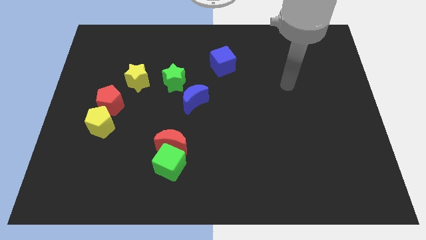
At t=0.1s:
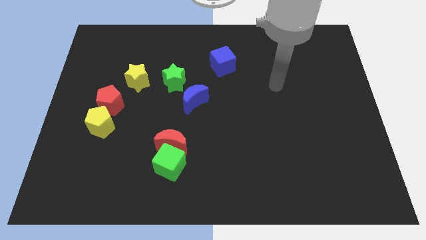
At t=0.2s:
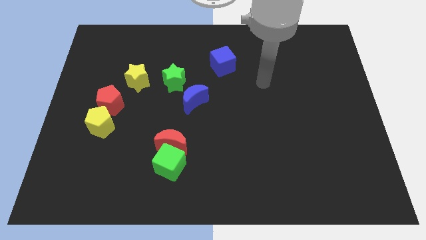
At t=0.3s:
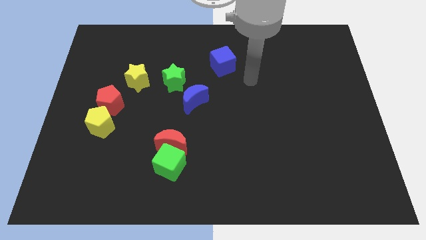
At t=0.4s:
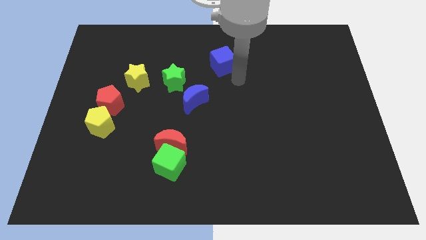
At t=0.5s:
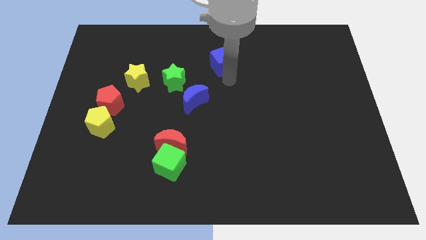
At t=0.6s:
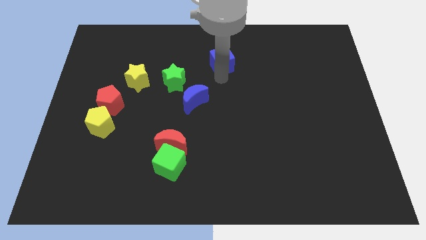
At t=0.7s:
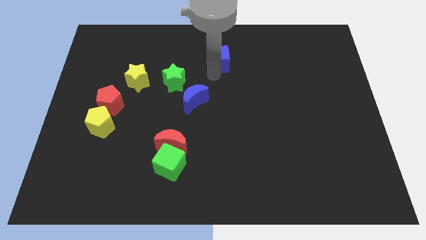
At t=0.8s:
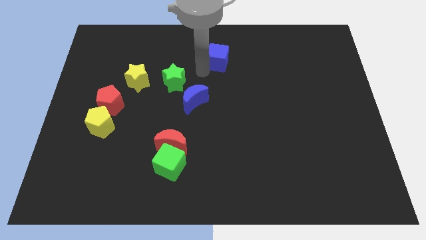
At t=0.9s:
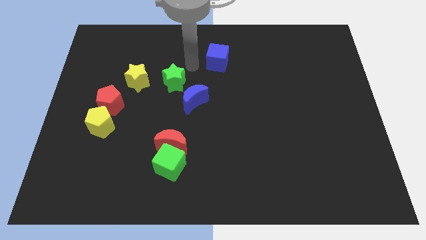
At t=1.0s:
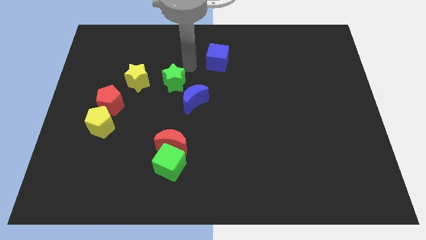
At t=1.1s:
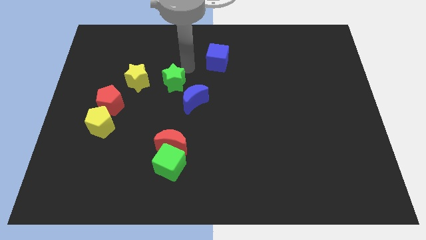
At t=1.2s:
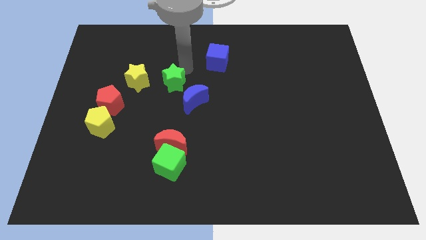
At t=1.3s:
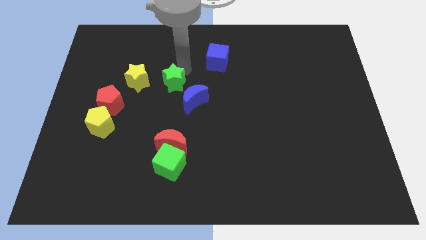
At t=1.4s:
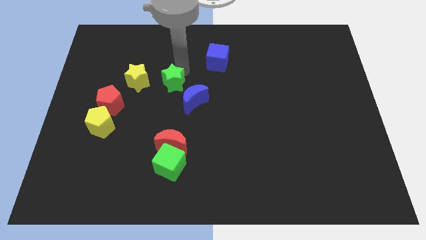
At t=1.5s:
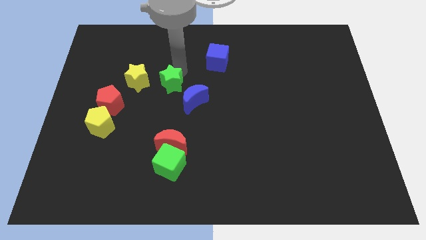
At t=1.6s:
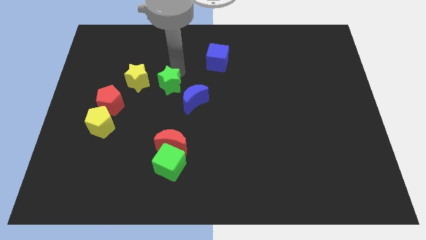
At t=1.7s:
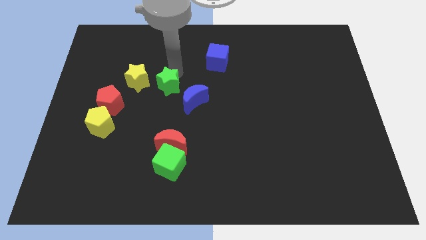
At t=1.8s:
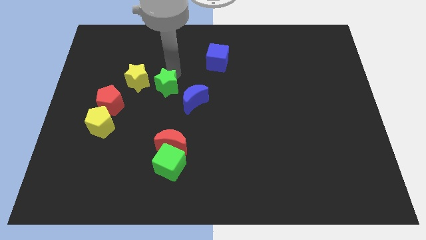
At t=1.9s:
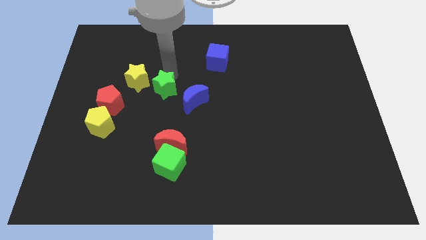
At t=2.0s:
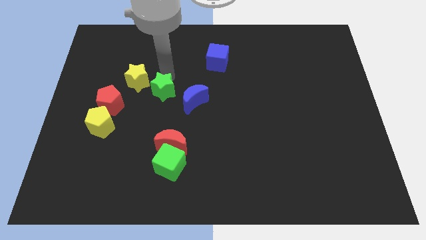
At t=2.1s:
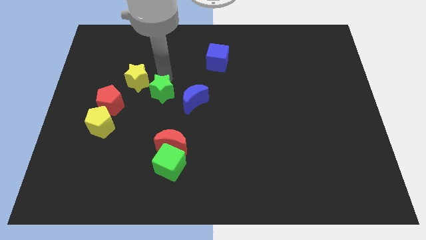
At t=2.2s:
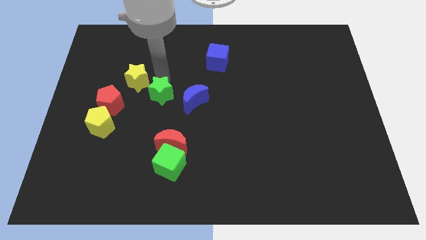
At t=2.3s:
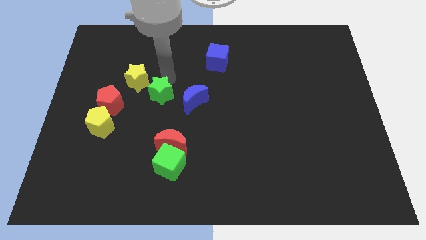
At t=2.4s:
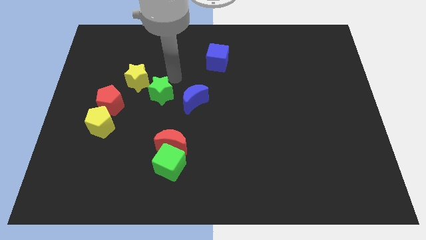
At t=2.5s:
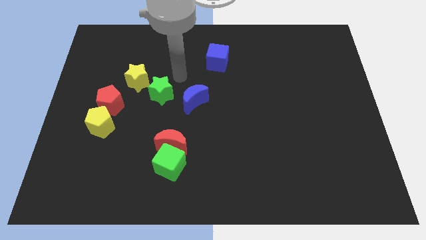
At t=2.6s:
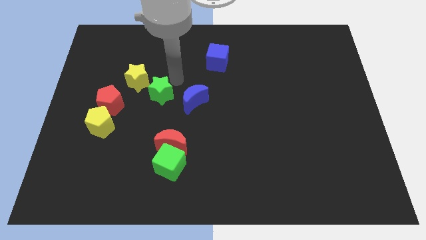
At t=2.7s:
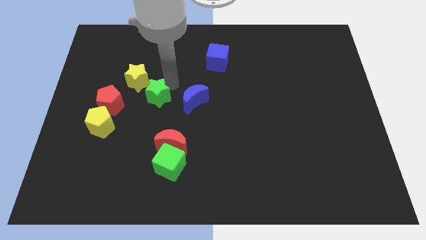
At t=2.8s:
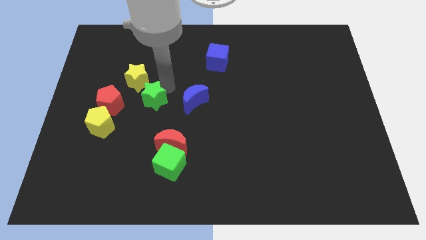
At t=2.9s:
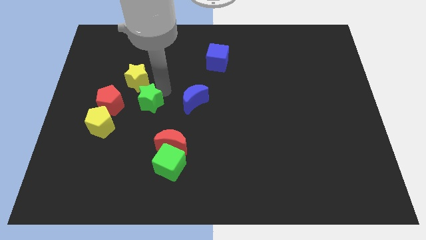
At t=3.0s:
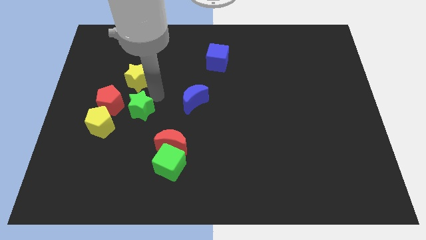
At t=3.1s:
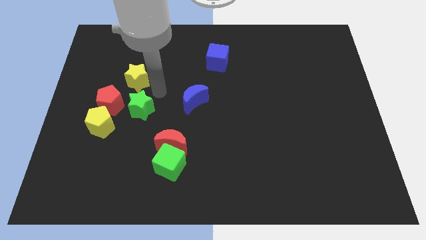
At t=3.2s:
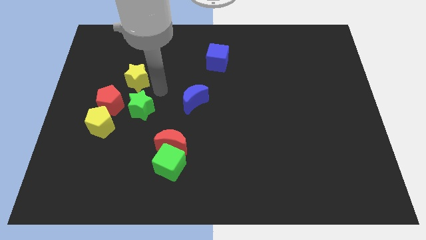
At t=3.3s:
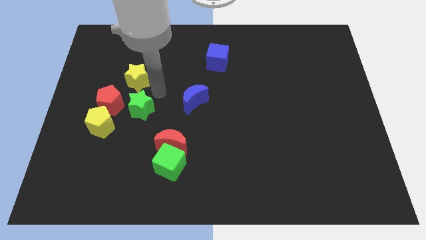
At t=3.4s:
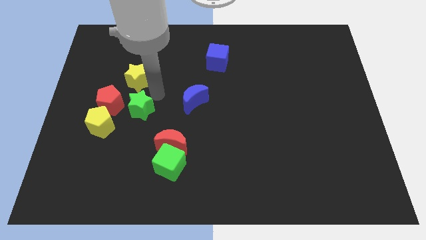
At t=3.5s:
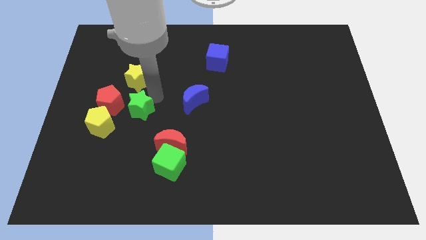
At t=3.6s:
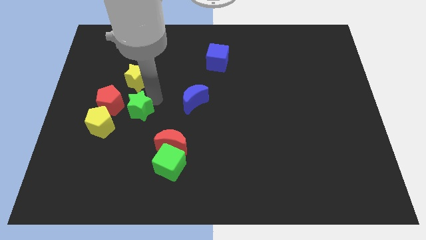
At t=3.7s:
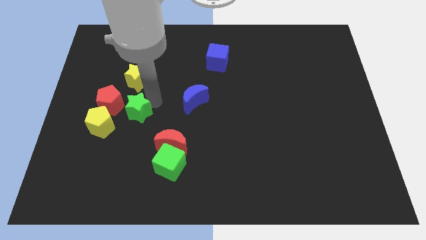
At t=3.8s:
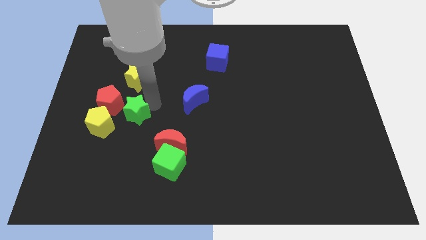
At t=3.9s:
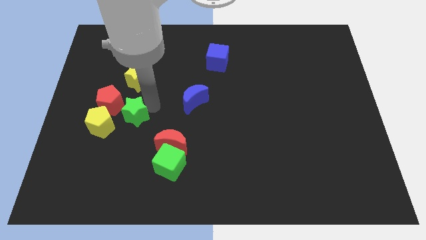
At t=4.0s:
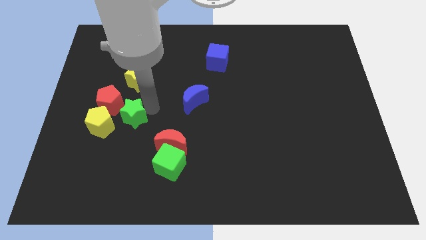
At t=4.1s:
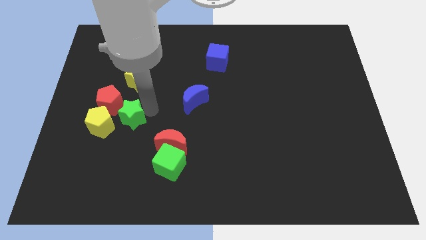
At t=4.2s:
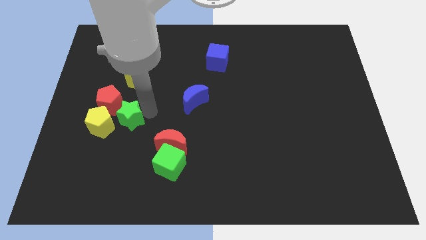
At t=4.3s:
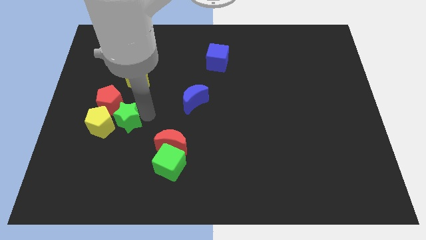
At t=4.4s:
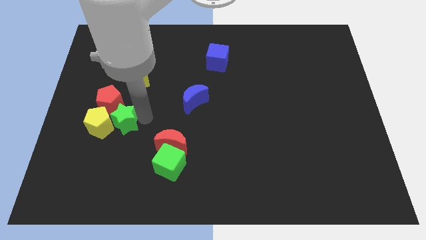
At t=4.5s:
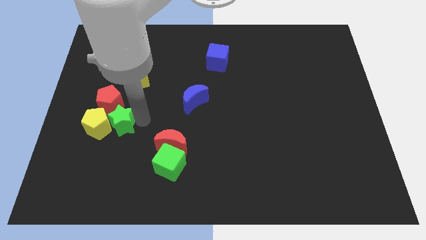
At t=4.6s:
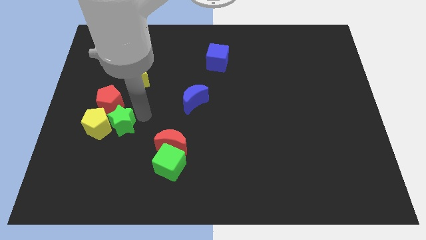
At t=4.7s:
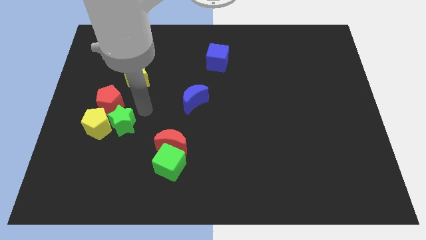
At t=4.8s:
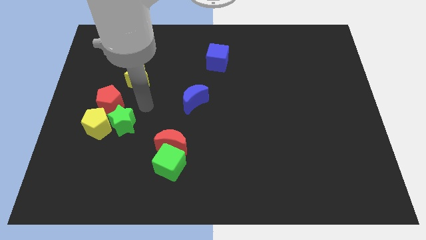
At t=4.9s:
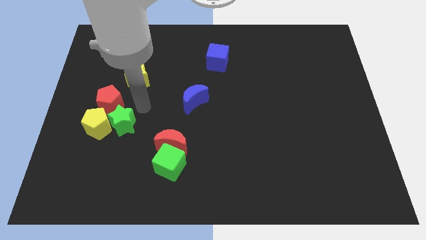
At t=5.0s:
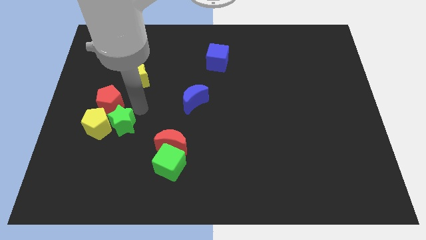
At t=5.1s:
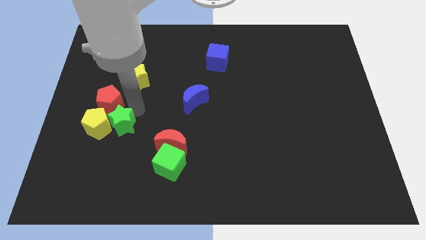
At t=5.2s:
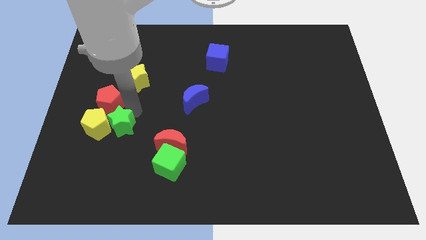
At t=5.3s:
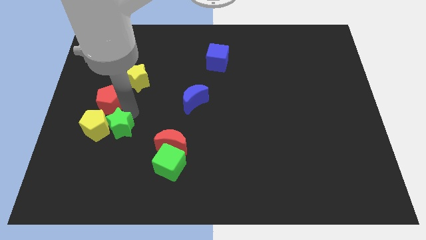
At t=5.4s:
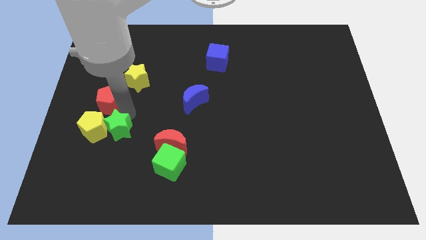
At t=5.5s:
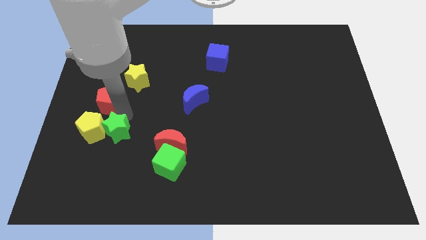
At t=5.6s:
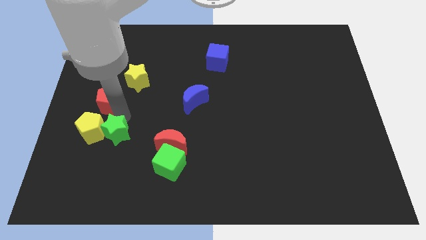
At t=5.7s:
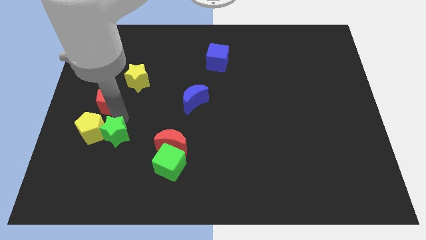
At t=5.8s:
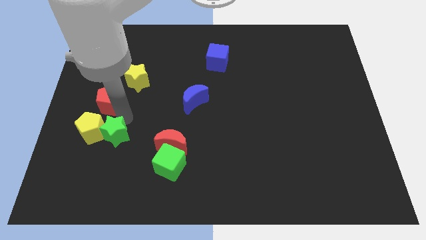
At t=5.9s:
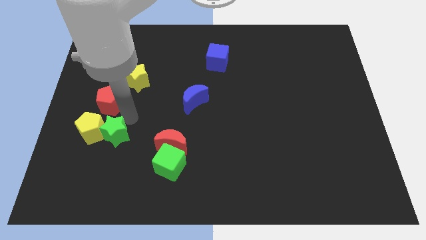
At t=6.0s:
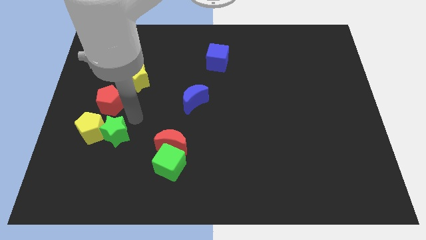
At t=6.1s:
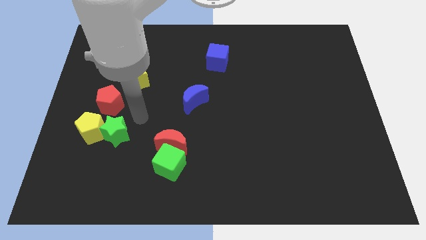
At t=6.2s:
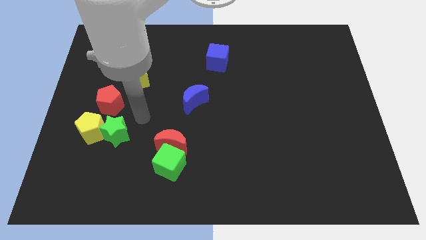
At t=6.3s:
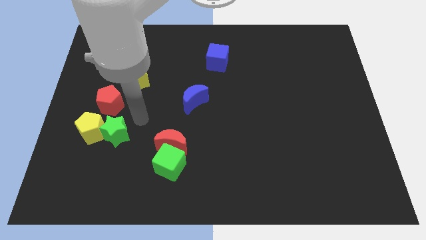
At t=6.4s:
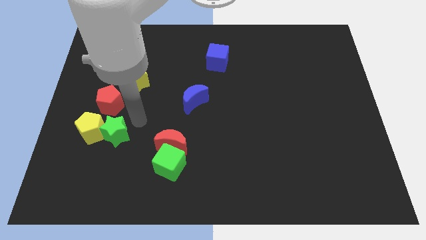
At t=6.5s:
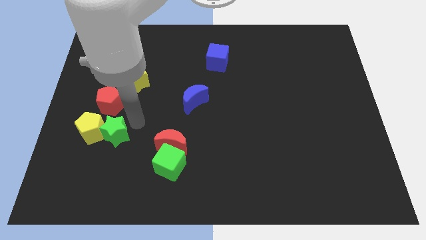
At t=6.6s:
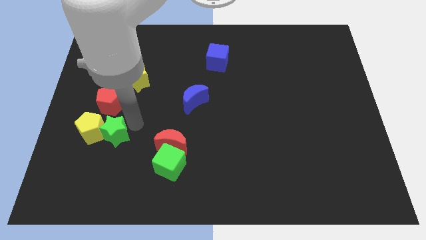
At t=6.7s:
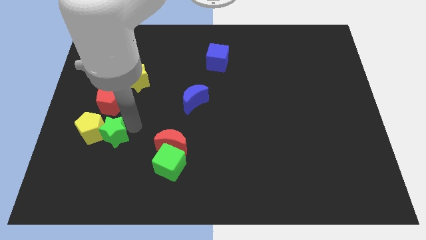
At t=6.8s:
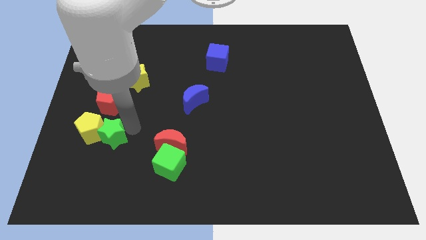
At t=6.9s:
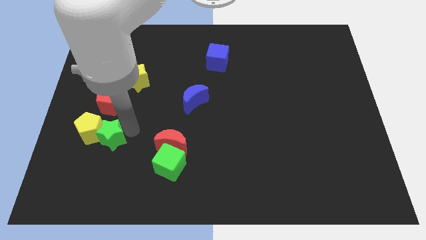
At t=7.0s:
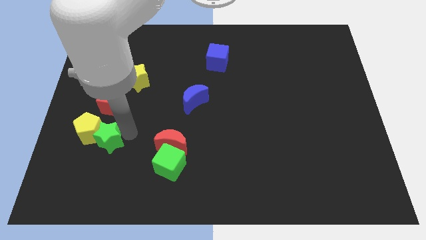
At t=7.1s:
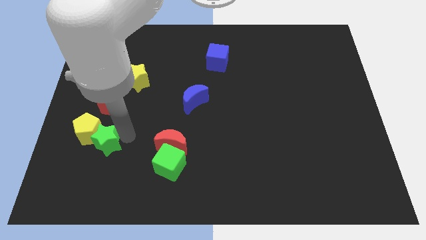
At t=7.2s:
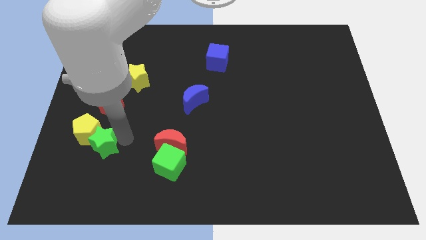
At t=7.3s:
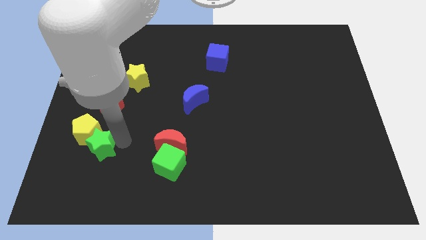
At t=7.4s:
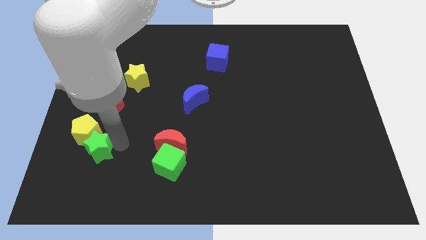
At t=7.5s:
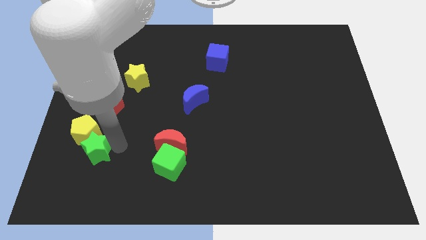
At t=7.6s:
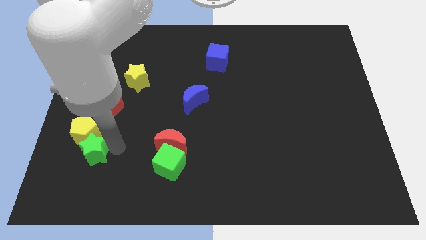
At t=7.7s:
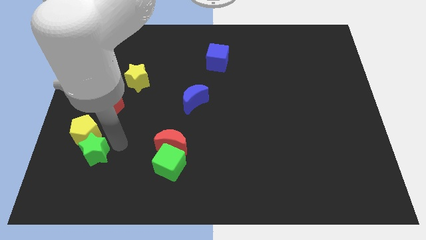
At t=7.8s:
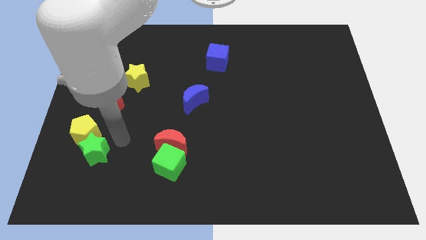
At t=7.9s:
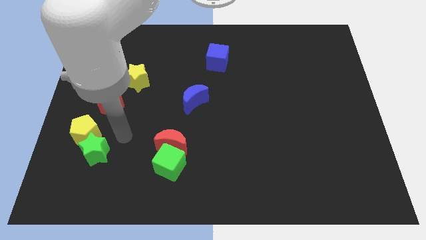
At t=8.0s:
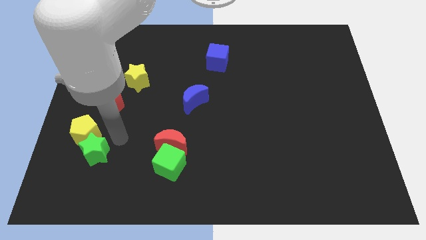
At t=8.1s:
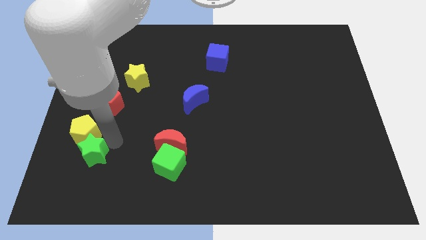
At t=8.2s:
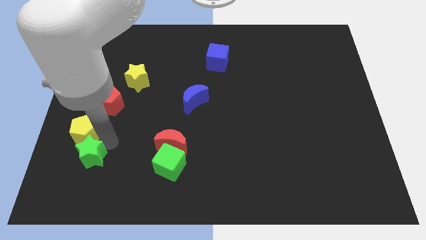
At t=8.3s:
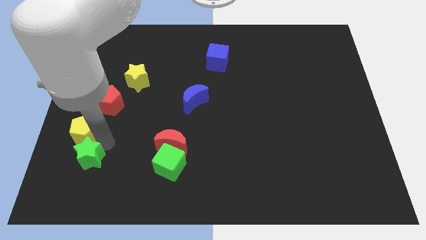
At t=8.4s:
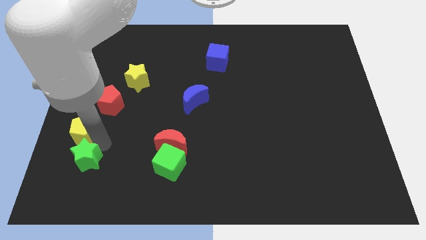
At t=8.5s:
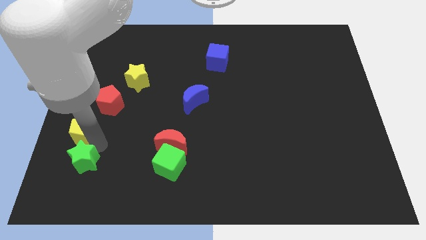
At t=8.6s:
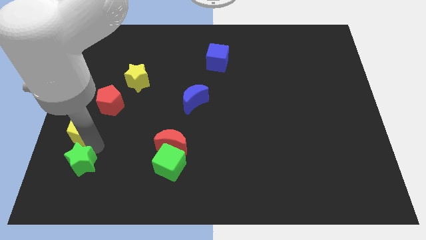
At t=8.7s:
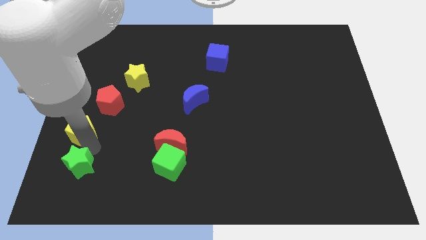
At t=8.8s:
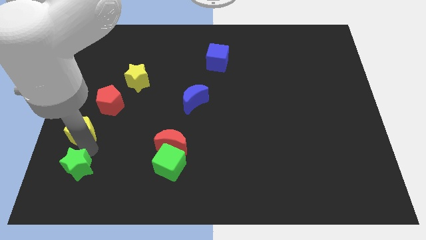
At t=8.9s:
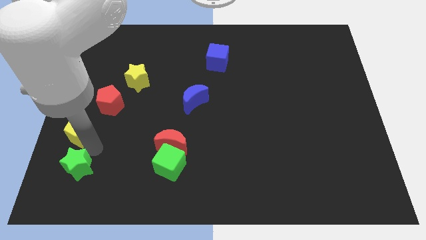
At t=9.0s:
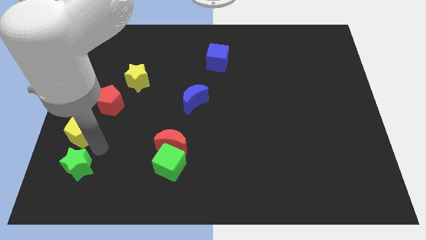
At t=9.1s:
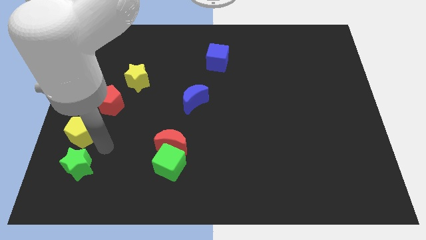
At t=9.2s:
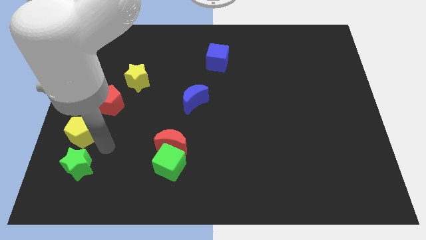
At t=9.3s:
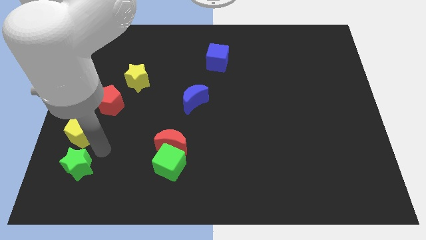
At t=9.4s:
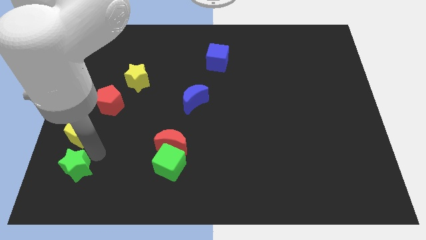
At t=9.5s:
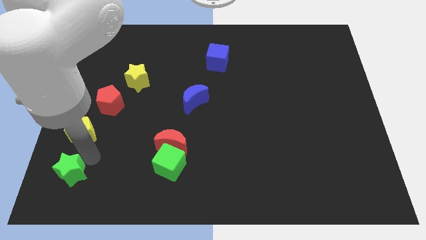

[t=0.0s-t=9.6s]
push the green star to the bottom left corner
